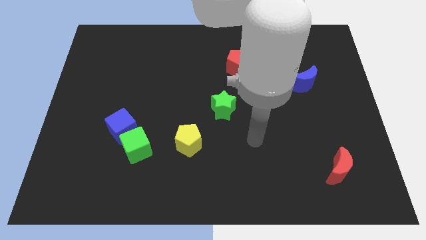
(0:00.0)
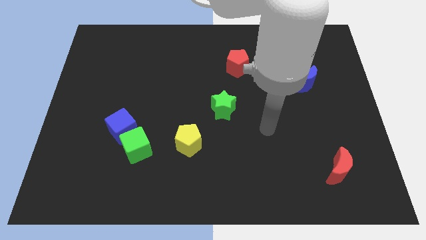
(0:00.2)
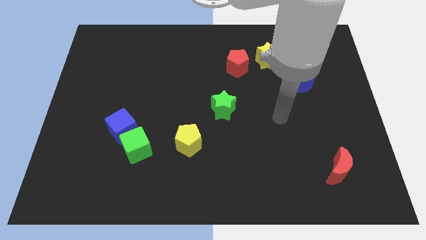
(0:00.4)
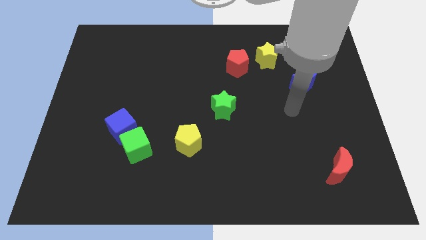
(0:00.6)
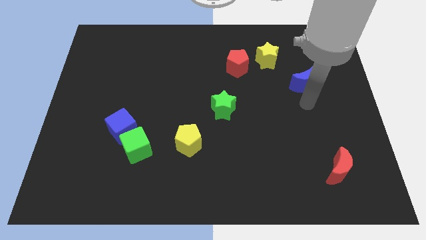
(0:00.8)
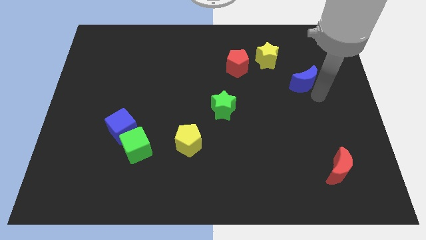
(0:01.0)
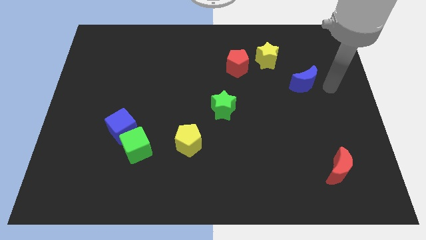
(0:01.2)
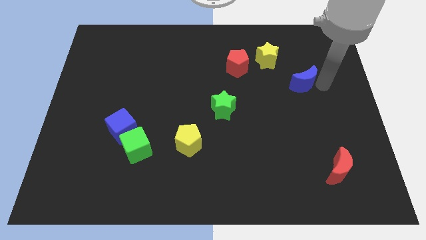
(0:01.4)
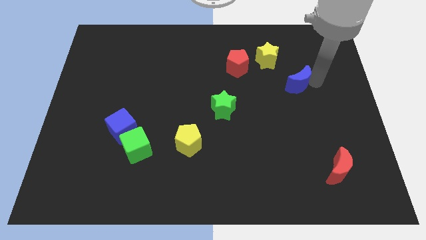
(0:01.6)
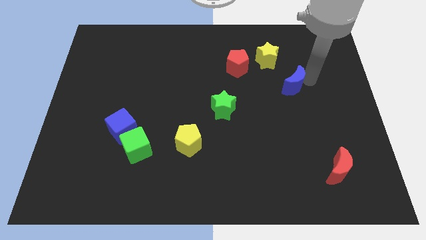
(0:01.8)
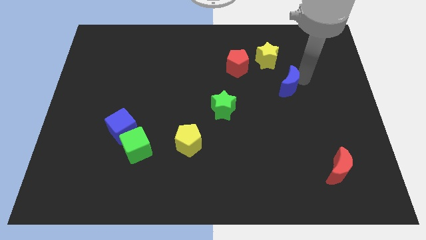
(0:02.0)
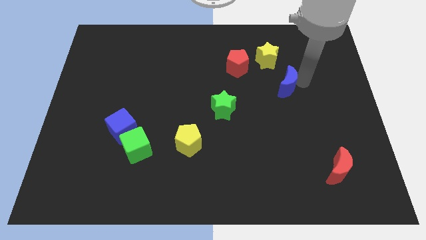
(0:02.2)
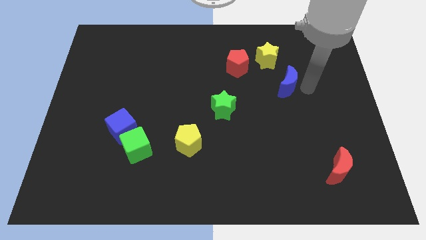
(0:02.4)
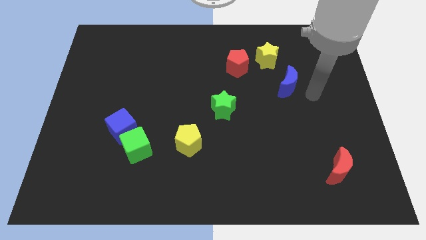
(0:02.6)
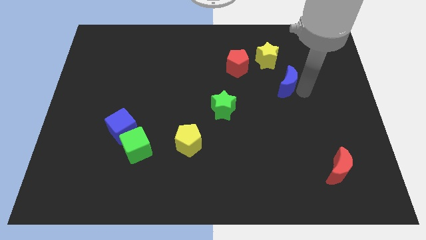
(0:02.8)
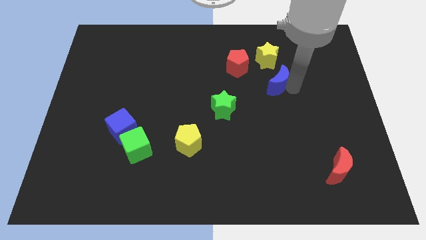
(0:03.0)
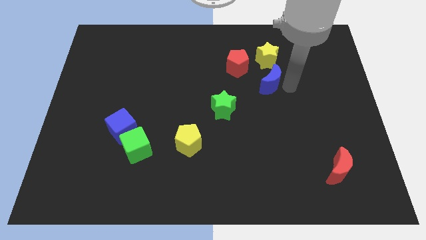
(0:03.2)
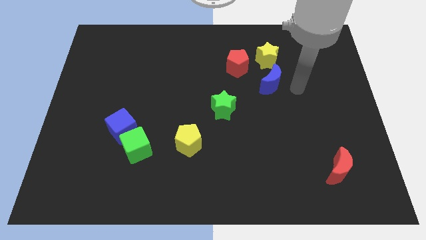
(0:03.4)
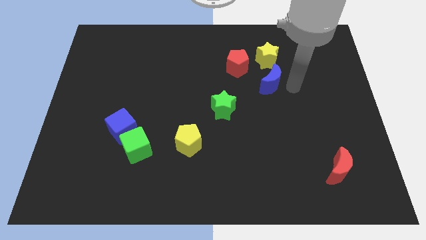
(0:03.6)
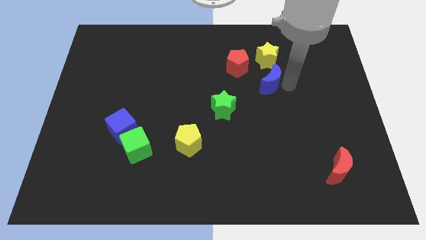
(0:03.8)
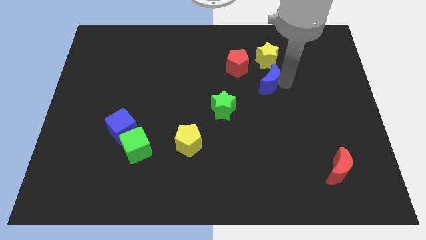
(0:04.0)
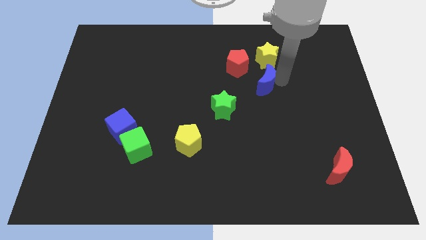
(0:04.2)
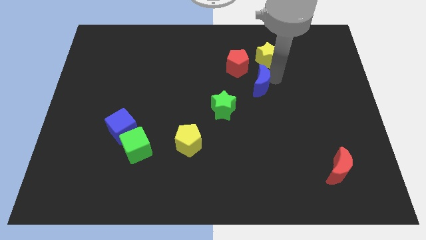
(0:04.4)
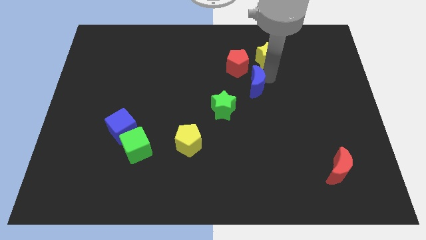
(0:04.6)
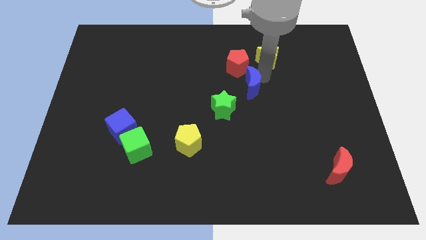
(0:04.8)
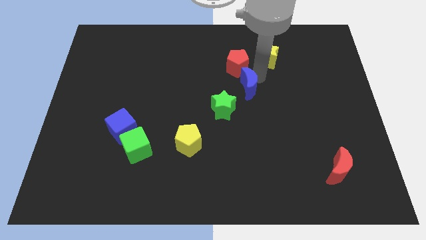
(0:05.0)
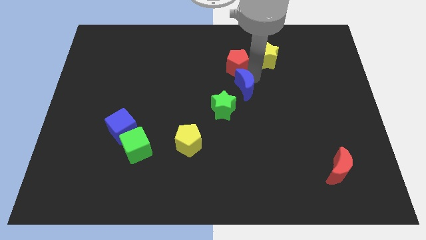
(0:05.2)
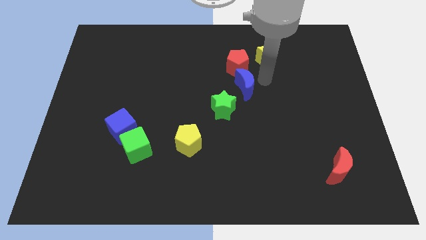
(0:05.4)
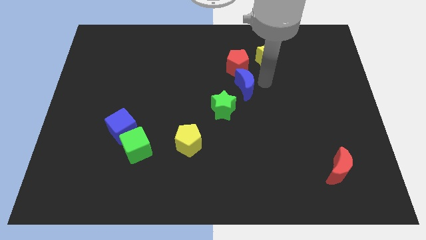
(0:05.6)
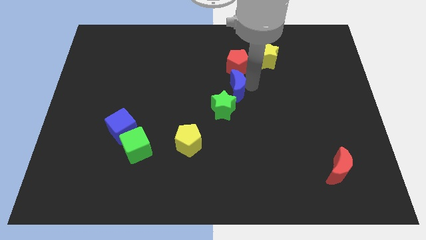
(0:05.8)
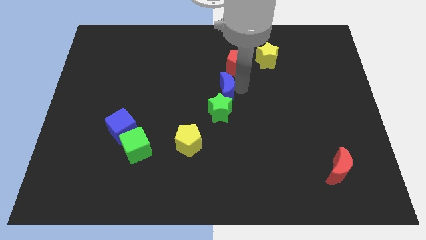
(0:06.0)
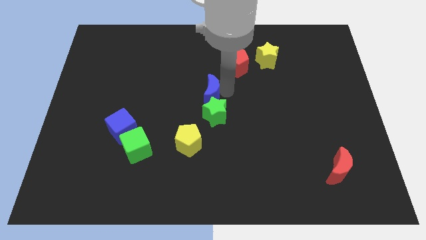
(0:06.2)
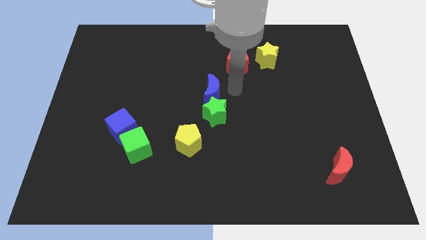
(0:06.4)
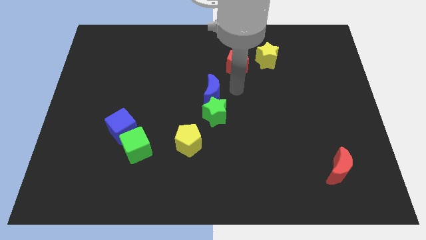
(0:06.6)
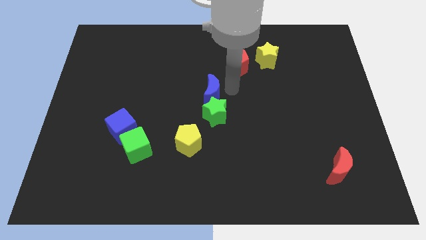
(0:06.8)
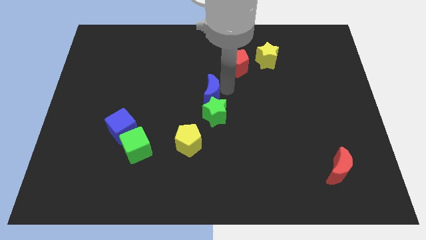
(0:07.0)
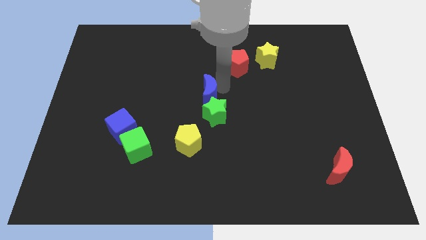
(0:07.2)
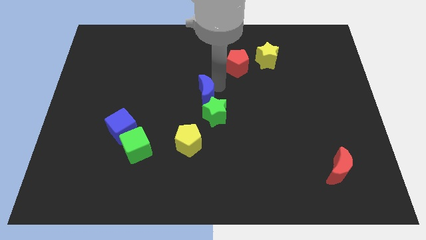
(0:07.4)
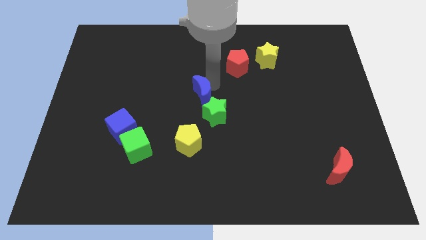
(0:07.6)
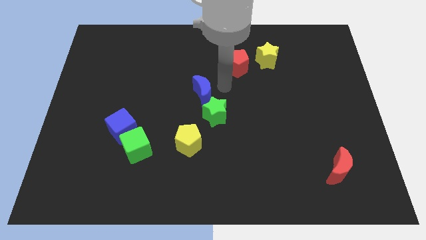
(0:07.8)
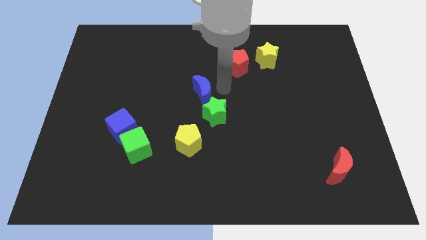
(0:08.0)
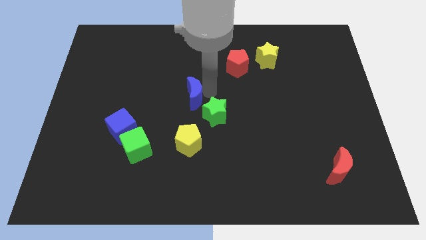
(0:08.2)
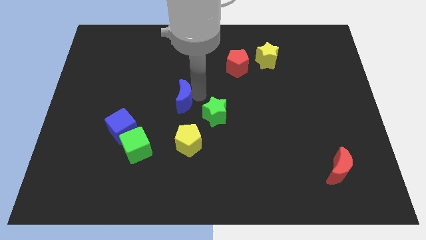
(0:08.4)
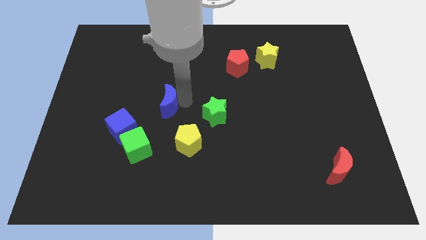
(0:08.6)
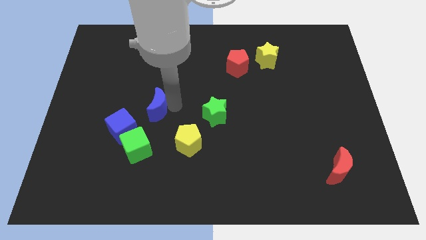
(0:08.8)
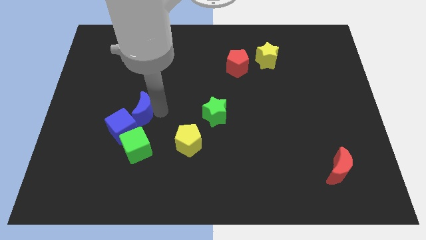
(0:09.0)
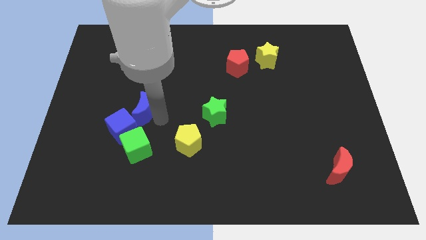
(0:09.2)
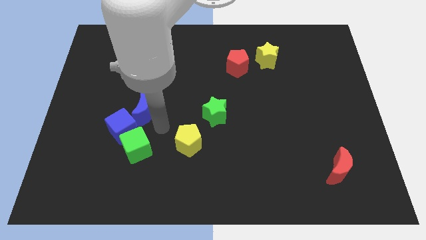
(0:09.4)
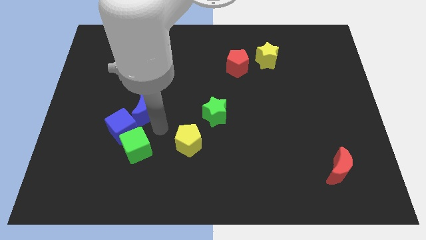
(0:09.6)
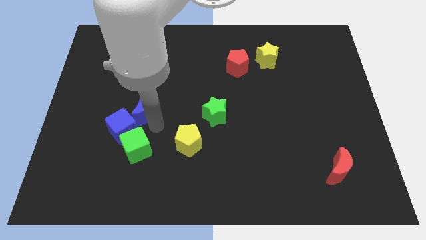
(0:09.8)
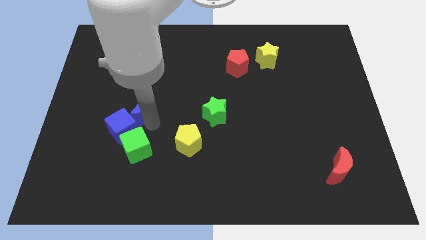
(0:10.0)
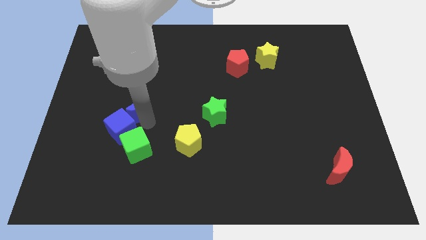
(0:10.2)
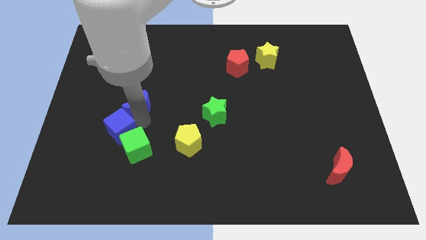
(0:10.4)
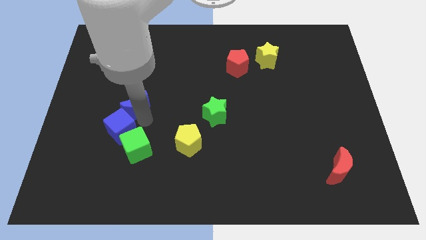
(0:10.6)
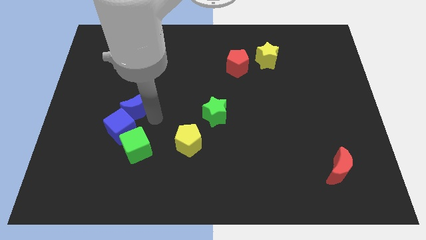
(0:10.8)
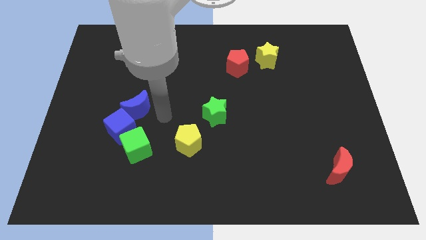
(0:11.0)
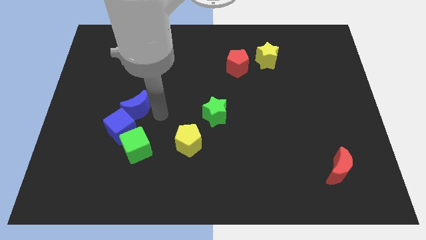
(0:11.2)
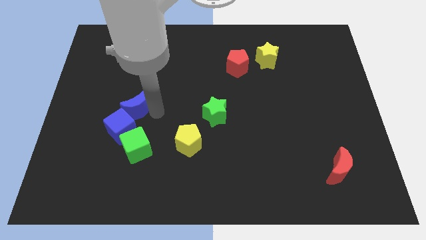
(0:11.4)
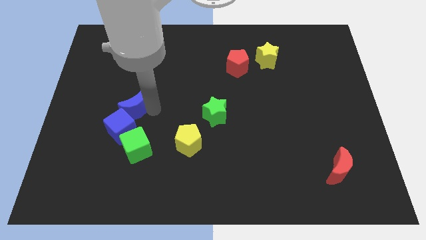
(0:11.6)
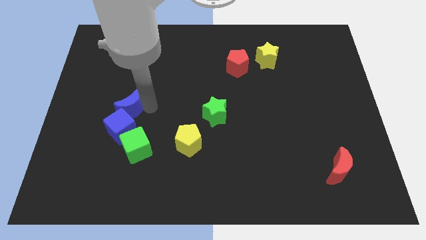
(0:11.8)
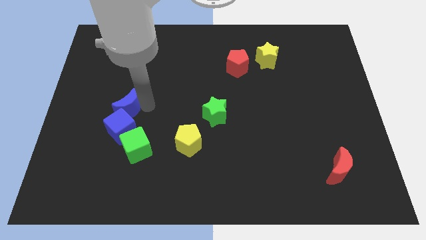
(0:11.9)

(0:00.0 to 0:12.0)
push the blue moon to the top left of the blue cube
